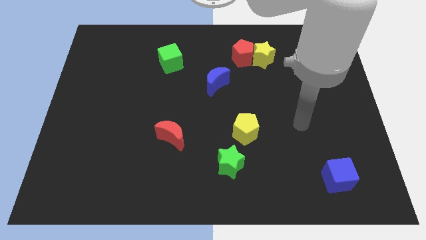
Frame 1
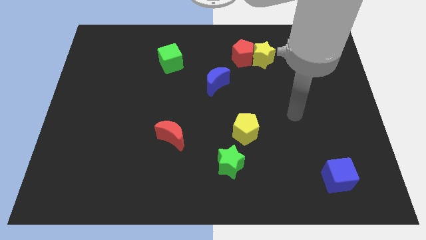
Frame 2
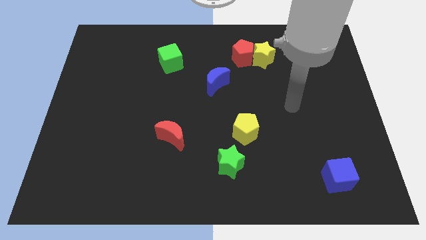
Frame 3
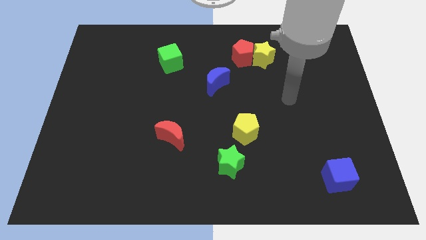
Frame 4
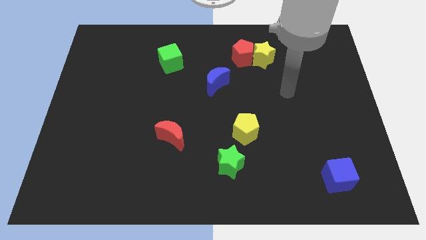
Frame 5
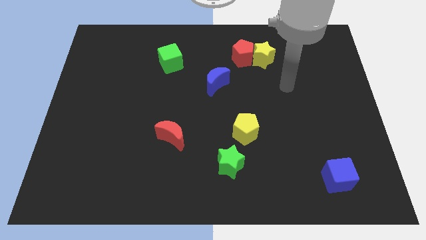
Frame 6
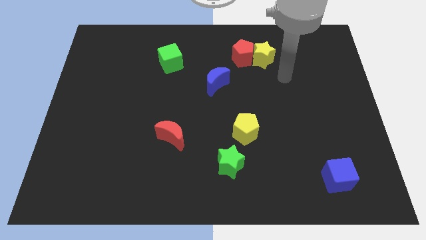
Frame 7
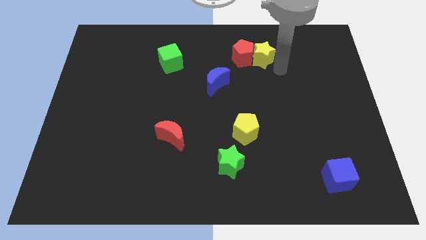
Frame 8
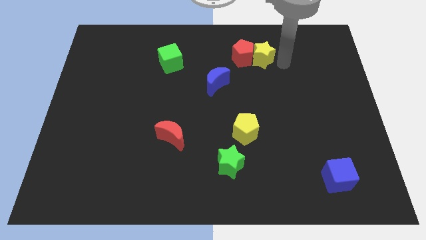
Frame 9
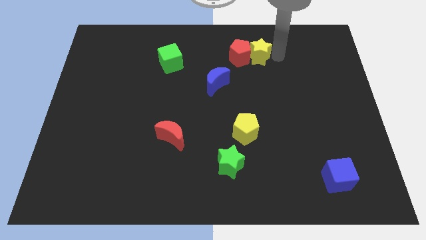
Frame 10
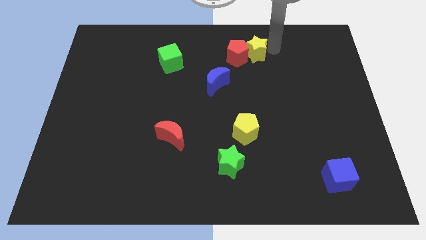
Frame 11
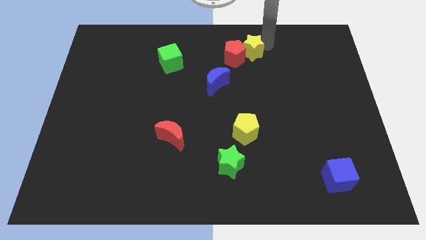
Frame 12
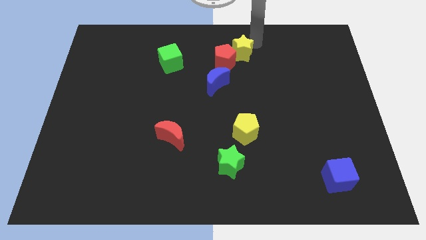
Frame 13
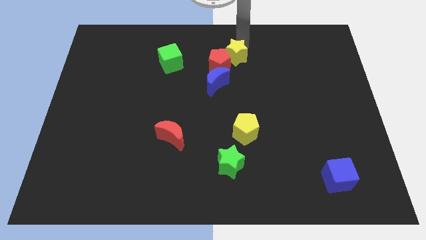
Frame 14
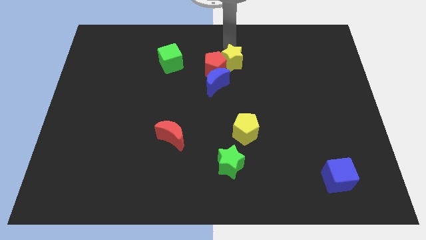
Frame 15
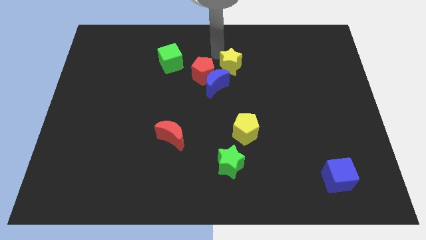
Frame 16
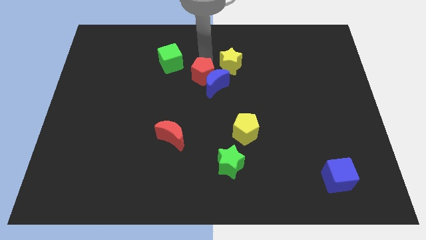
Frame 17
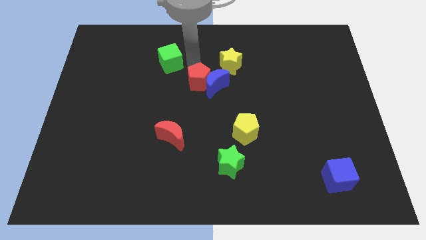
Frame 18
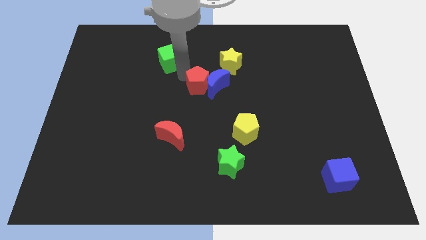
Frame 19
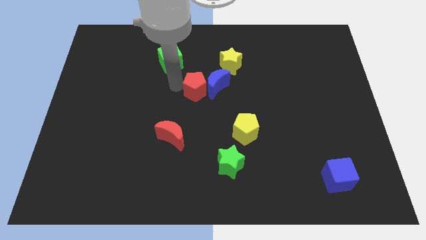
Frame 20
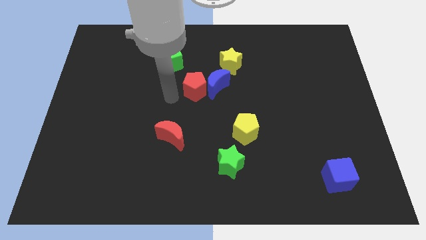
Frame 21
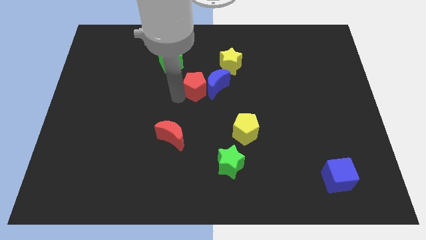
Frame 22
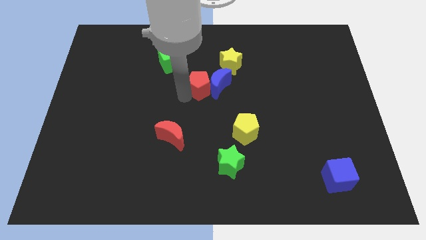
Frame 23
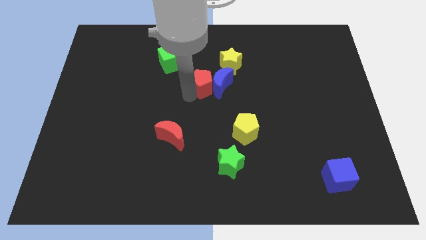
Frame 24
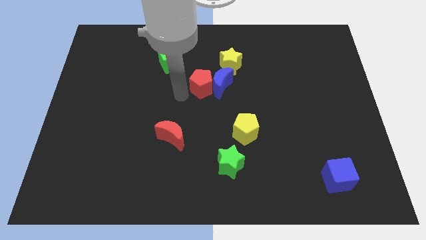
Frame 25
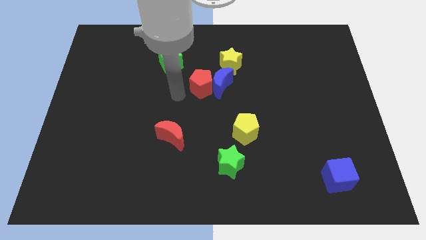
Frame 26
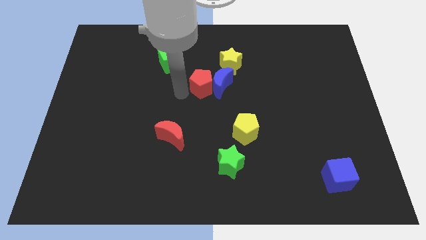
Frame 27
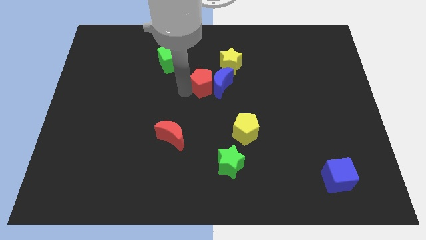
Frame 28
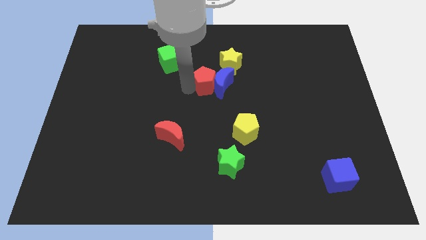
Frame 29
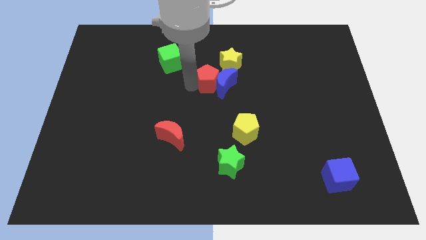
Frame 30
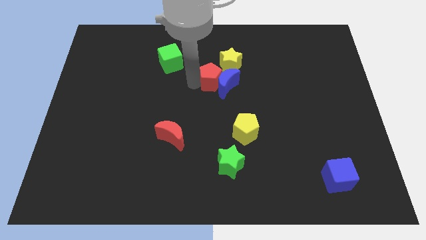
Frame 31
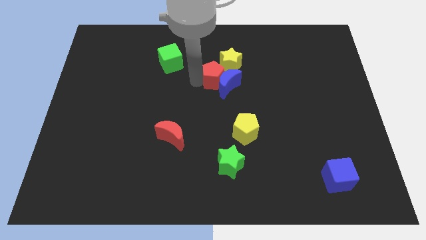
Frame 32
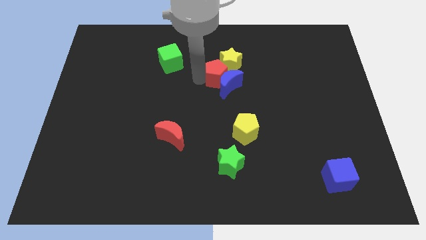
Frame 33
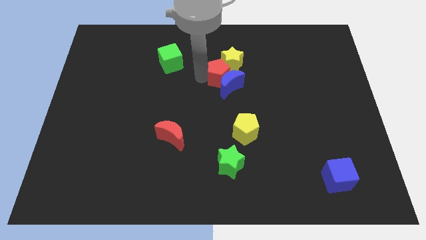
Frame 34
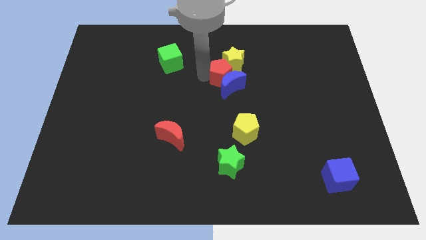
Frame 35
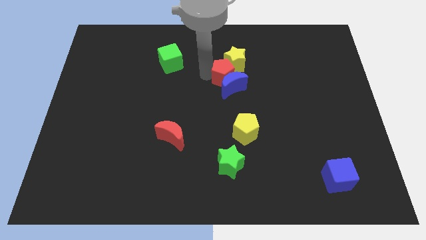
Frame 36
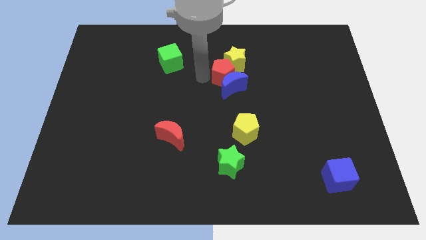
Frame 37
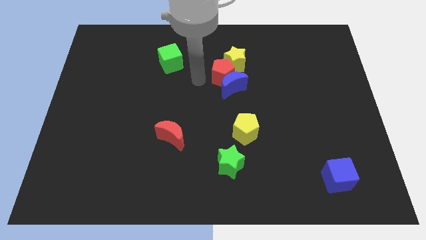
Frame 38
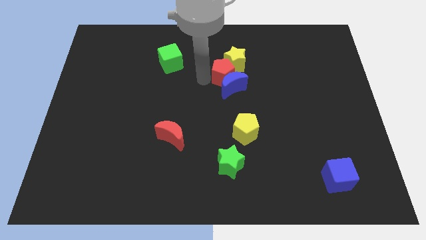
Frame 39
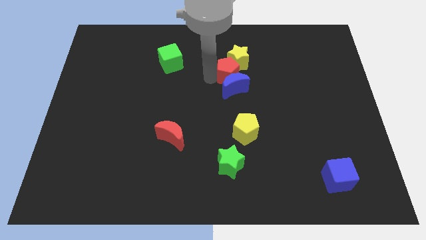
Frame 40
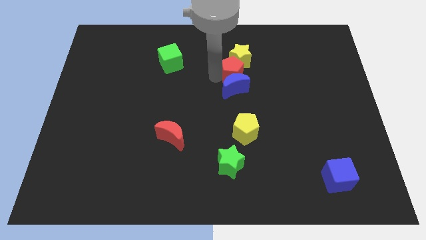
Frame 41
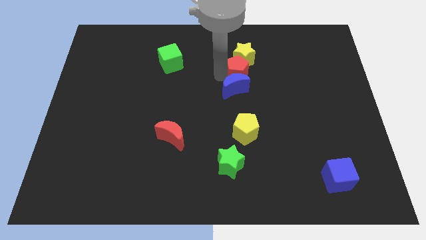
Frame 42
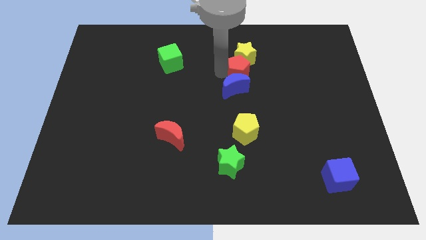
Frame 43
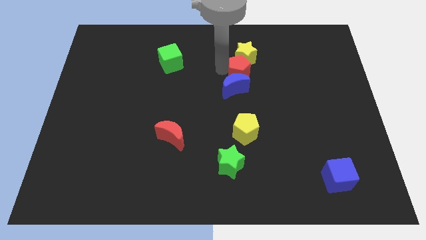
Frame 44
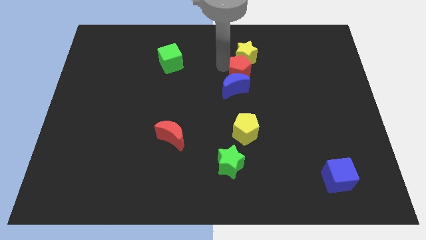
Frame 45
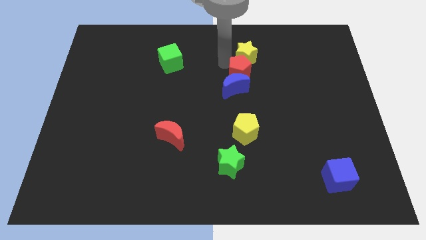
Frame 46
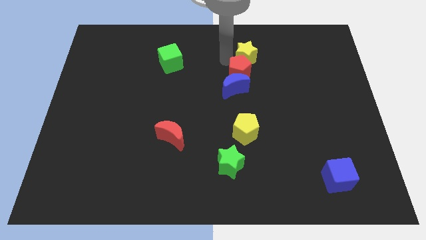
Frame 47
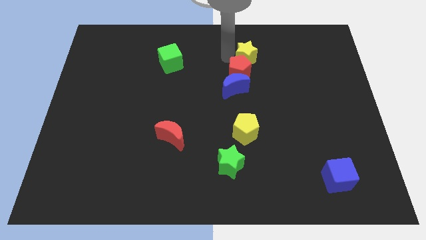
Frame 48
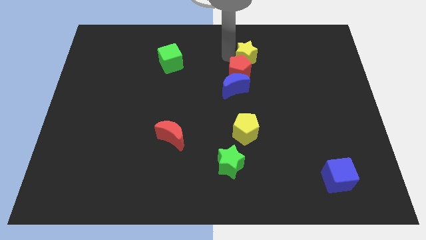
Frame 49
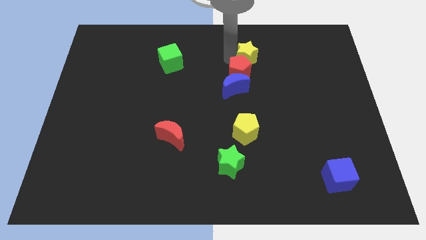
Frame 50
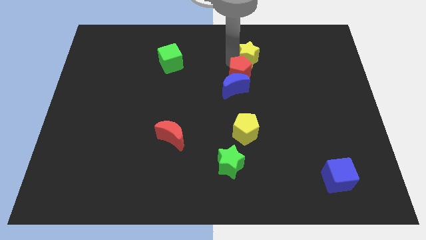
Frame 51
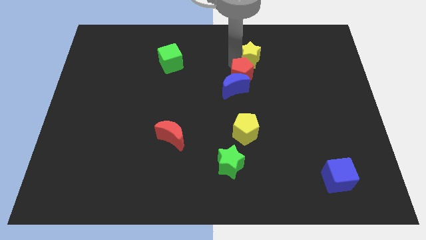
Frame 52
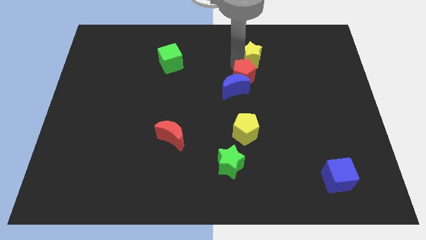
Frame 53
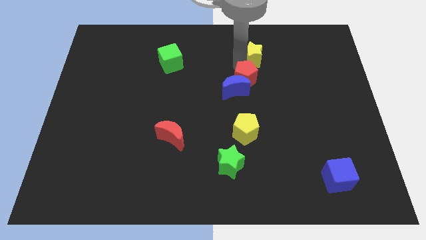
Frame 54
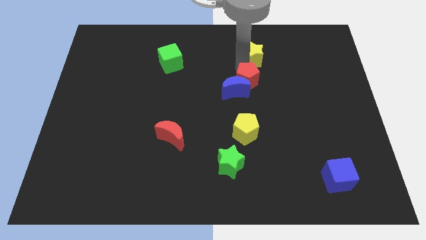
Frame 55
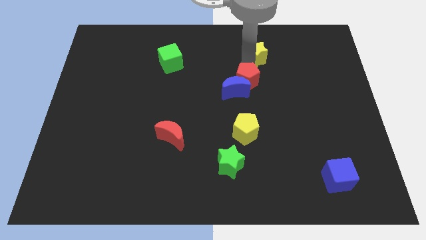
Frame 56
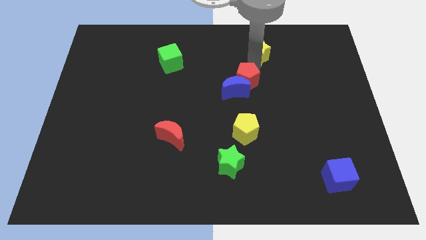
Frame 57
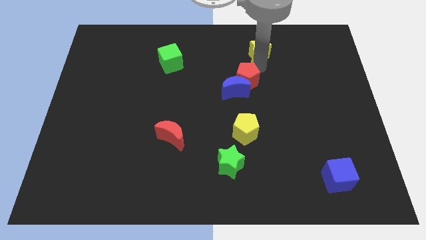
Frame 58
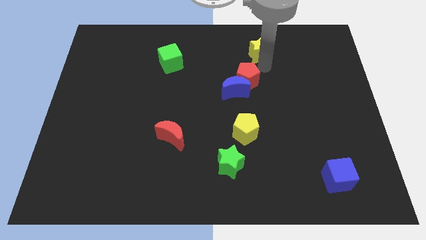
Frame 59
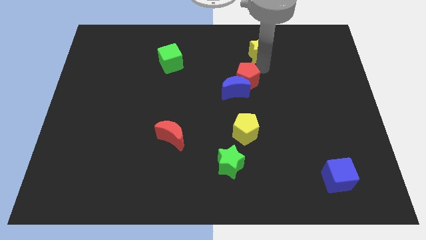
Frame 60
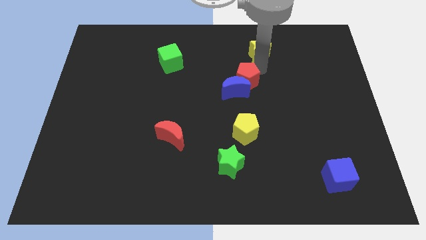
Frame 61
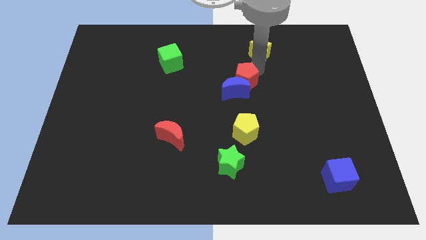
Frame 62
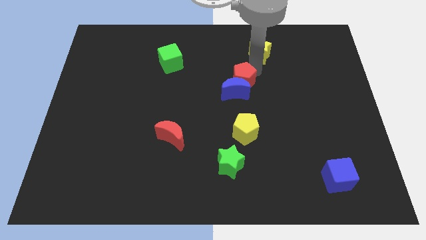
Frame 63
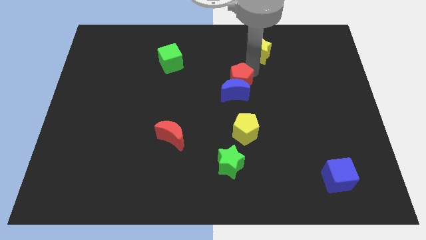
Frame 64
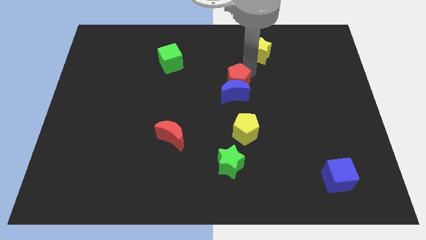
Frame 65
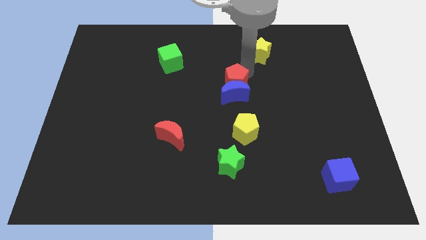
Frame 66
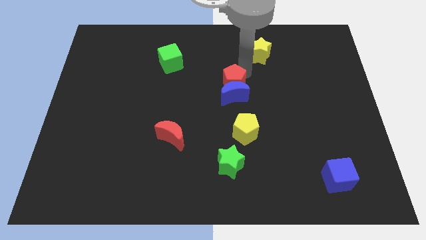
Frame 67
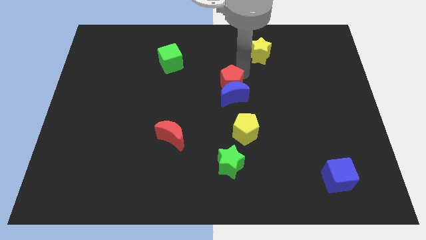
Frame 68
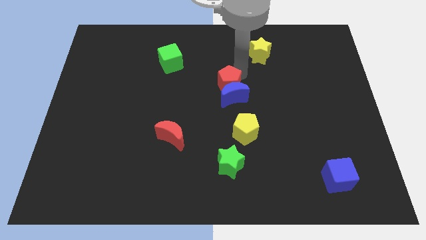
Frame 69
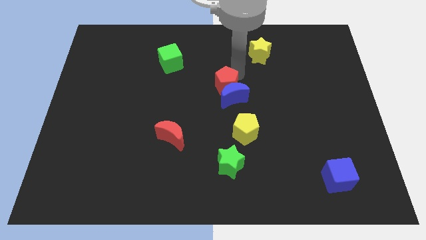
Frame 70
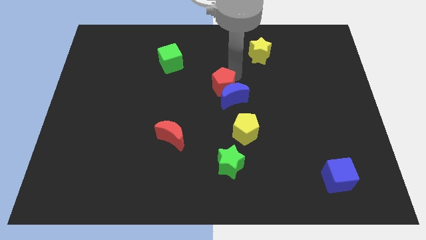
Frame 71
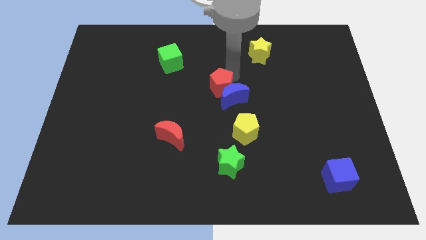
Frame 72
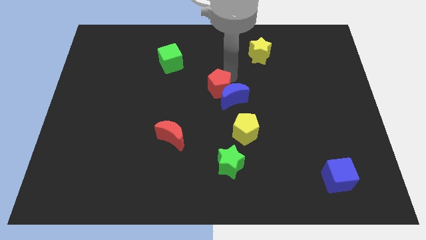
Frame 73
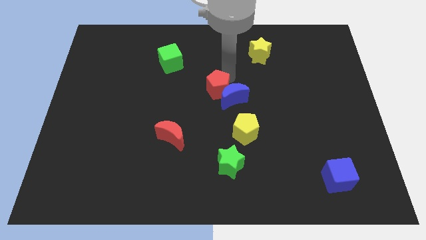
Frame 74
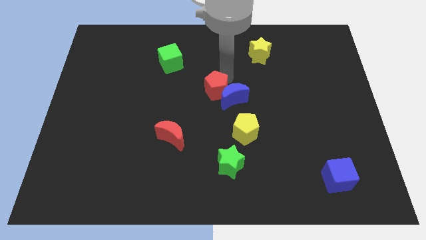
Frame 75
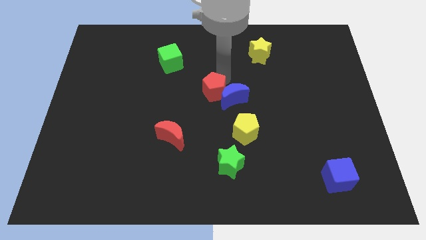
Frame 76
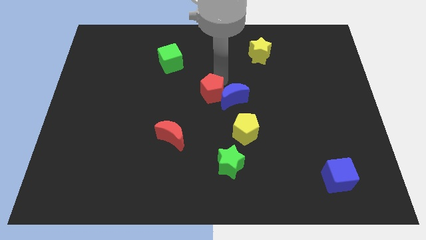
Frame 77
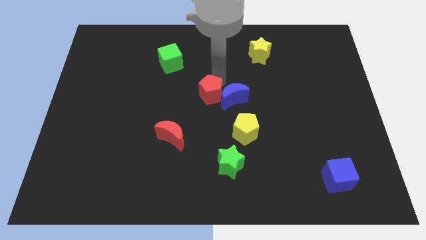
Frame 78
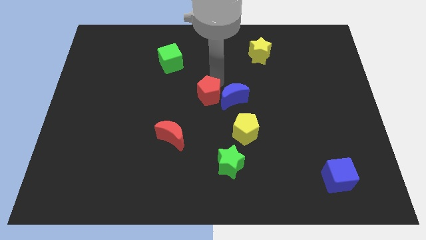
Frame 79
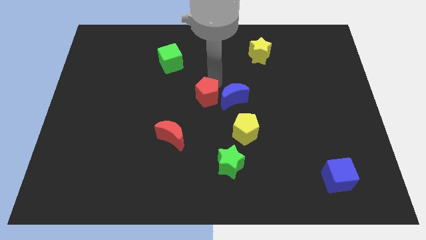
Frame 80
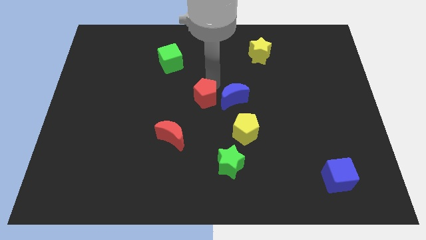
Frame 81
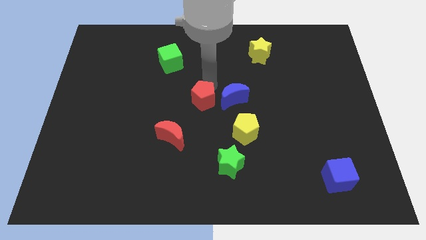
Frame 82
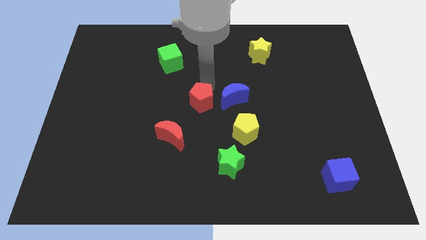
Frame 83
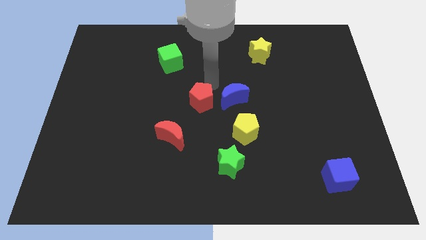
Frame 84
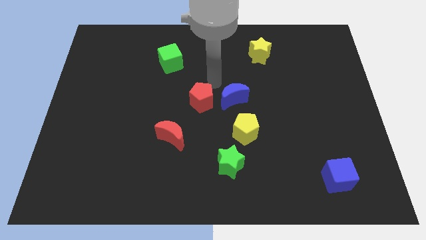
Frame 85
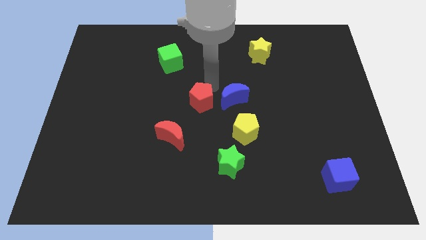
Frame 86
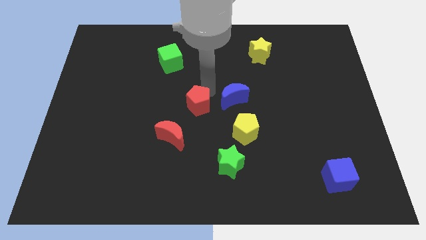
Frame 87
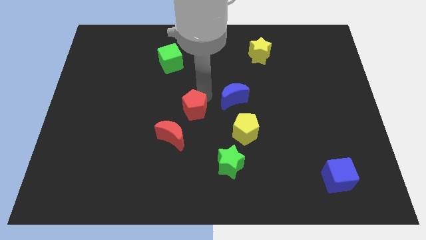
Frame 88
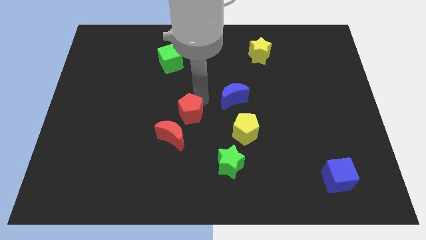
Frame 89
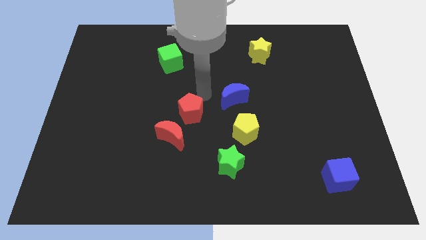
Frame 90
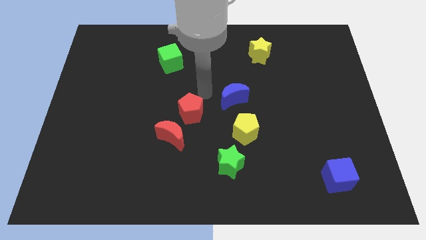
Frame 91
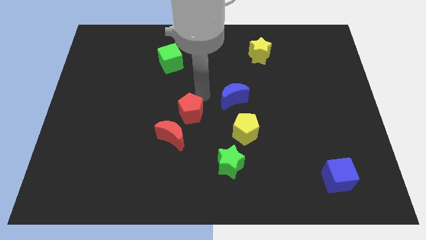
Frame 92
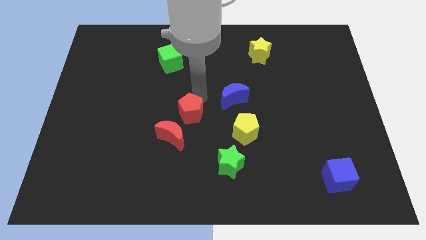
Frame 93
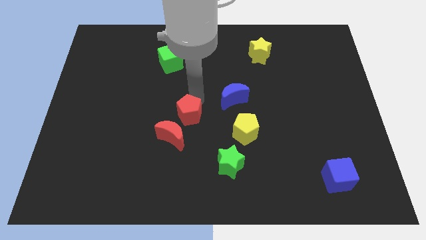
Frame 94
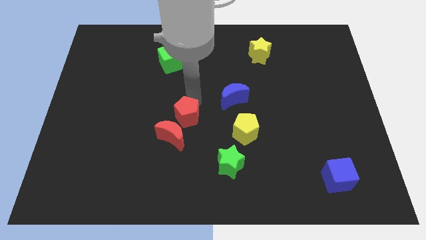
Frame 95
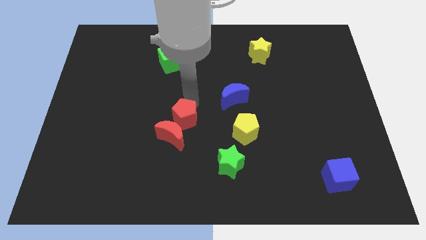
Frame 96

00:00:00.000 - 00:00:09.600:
put the red pentagon to the red moon
